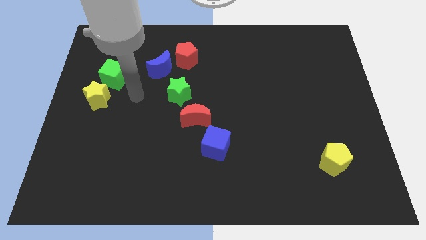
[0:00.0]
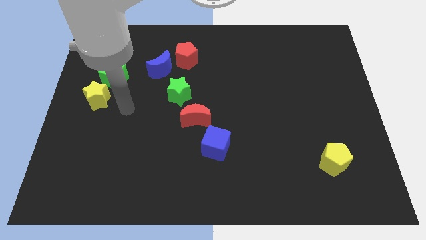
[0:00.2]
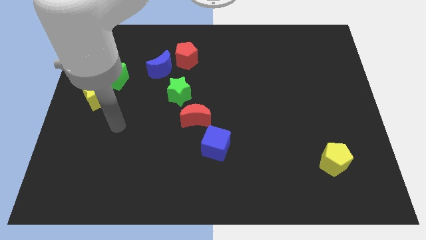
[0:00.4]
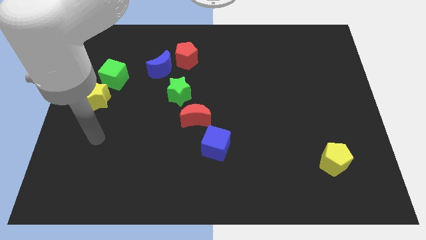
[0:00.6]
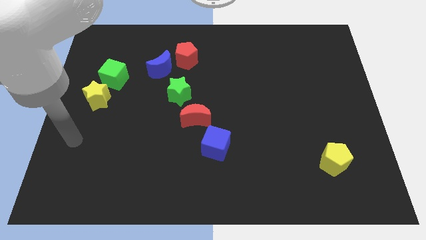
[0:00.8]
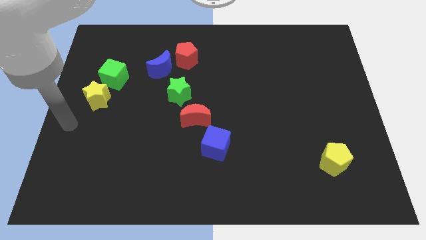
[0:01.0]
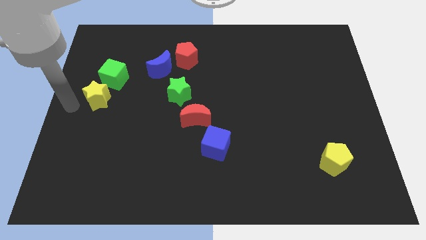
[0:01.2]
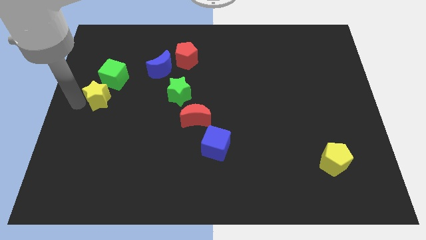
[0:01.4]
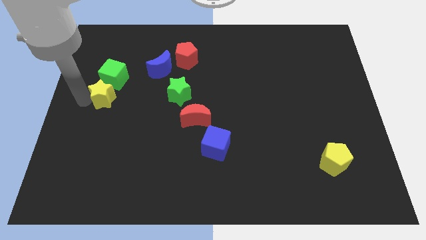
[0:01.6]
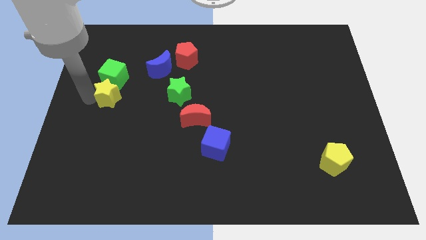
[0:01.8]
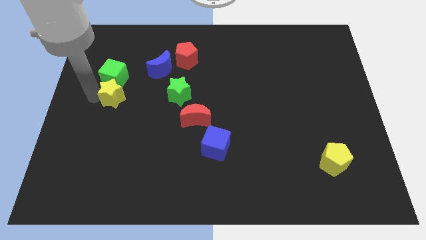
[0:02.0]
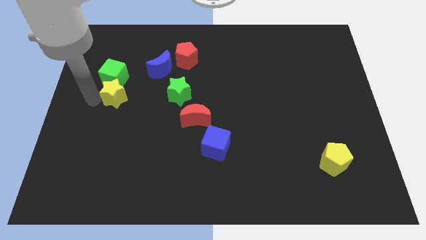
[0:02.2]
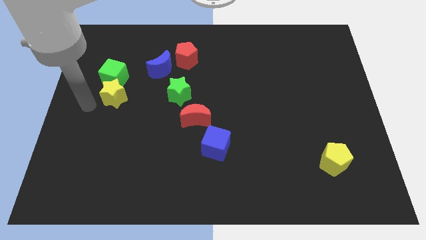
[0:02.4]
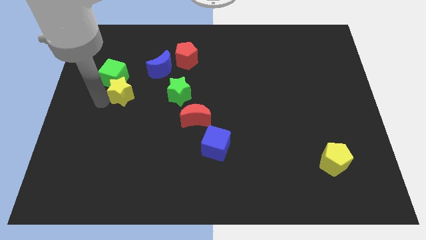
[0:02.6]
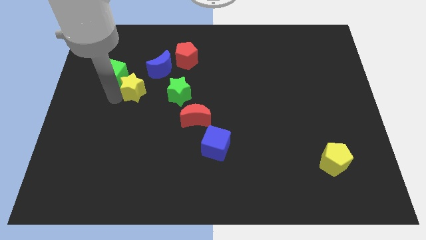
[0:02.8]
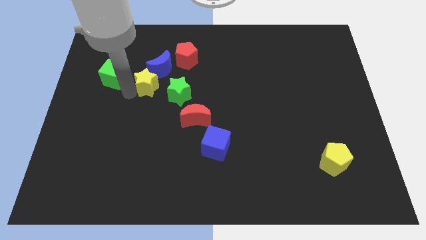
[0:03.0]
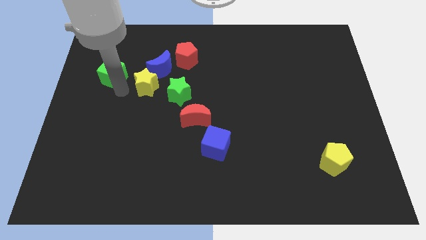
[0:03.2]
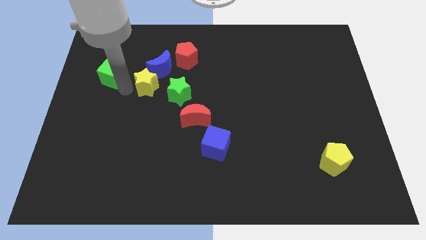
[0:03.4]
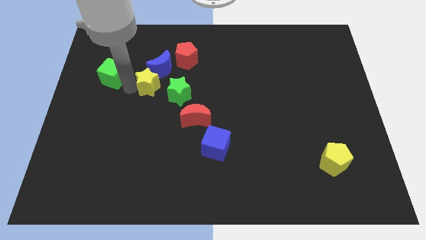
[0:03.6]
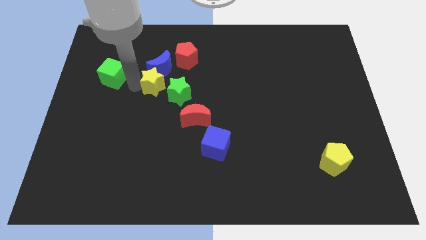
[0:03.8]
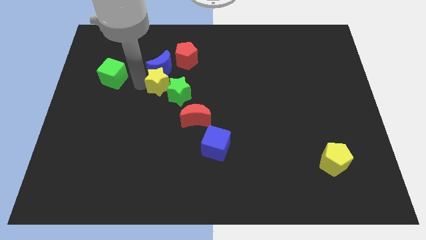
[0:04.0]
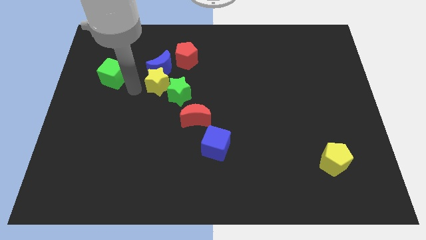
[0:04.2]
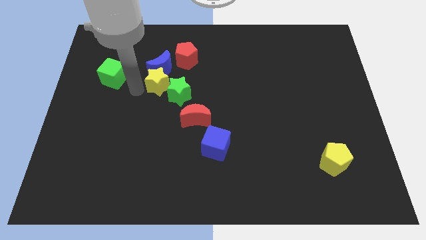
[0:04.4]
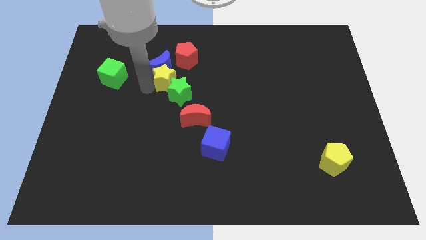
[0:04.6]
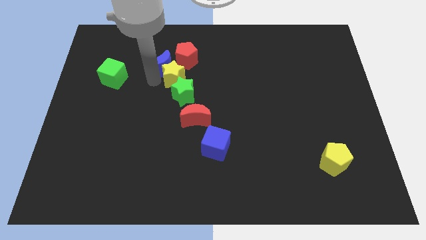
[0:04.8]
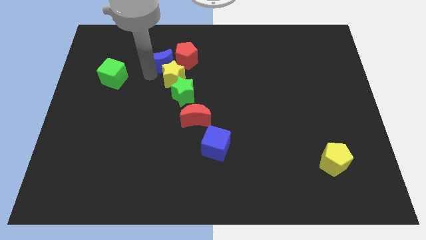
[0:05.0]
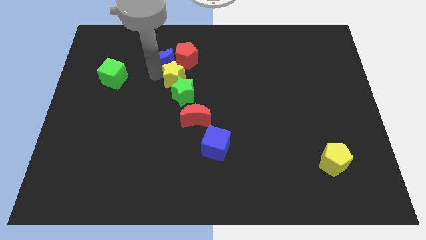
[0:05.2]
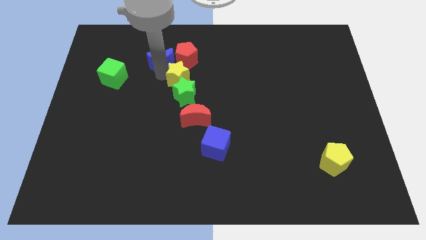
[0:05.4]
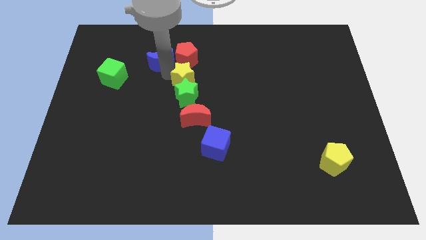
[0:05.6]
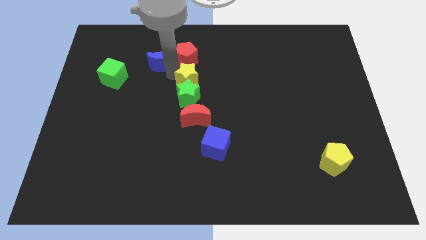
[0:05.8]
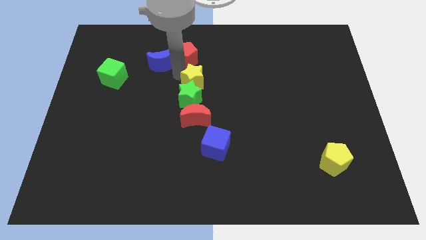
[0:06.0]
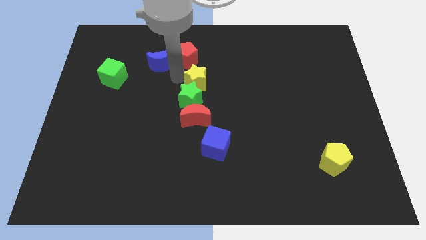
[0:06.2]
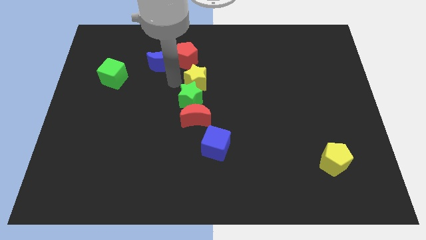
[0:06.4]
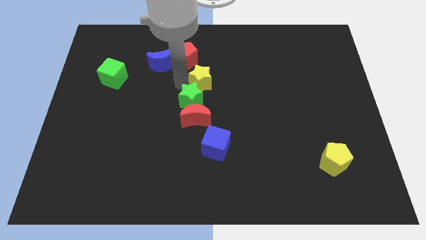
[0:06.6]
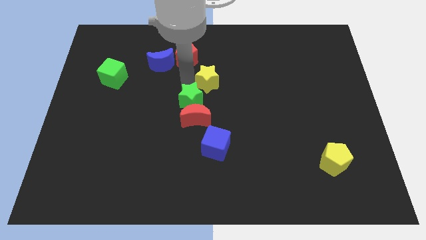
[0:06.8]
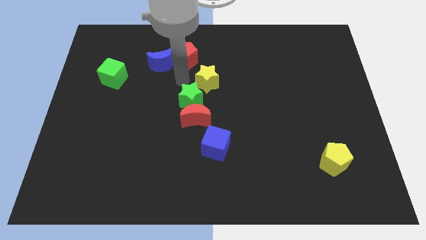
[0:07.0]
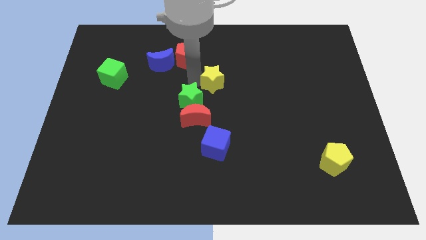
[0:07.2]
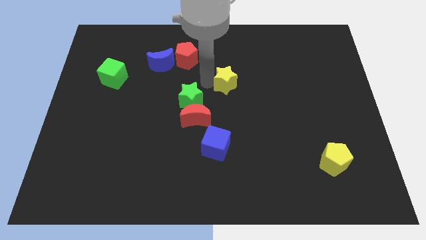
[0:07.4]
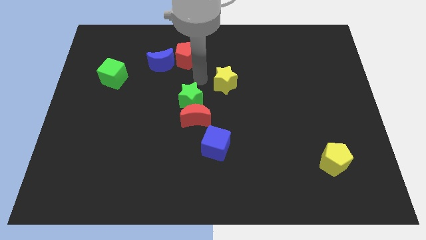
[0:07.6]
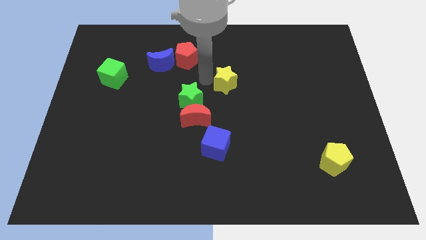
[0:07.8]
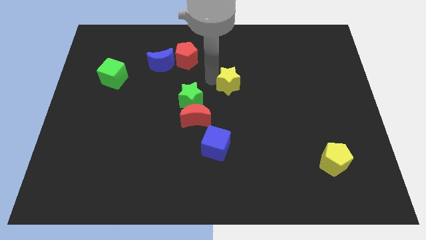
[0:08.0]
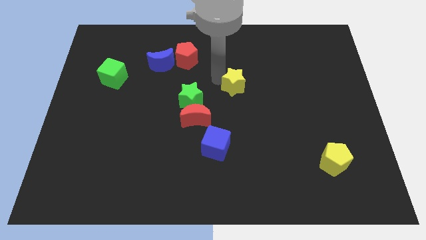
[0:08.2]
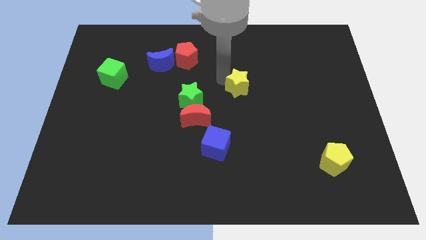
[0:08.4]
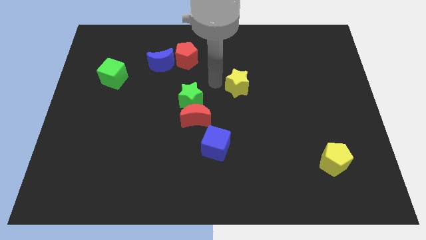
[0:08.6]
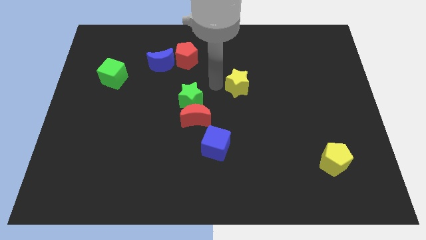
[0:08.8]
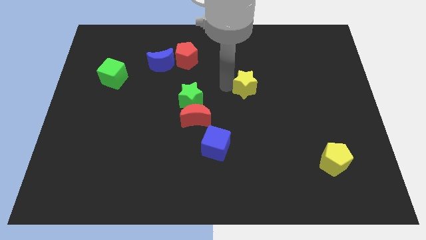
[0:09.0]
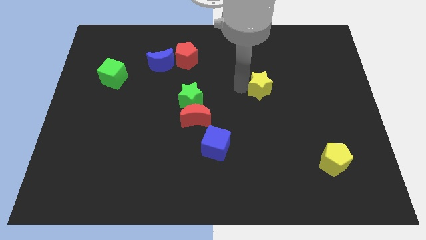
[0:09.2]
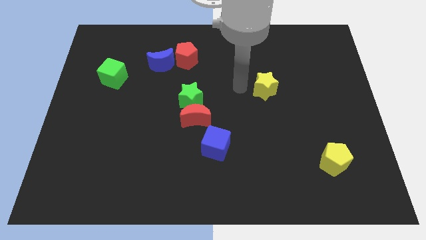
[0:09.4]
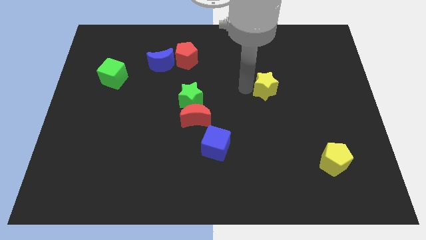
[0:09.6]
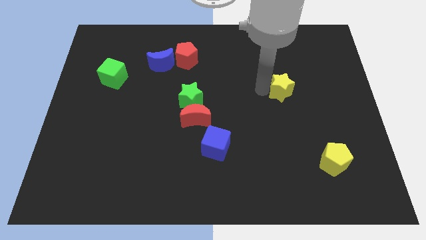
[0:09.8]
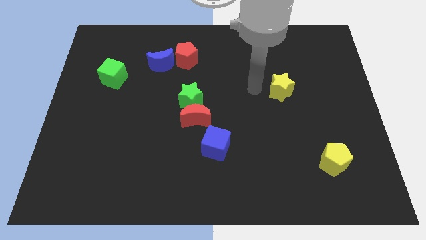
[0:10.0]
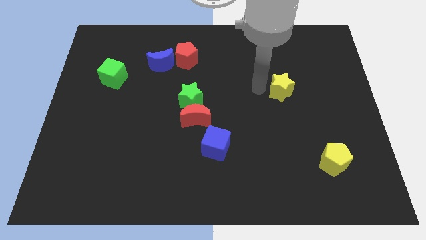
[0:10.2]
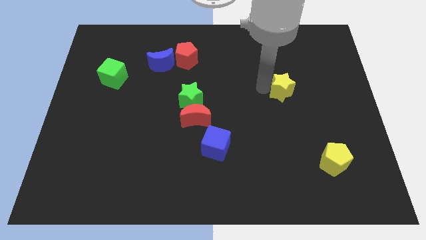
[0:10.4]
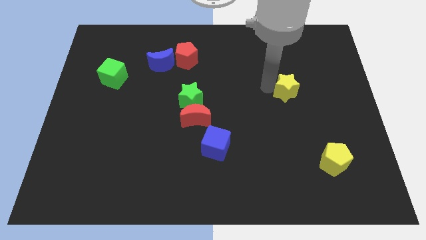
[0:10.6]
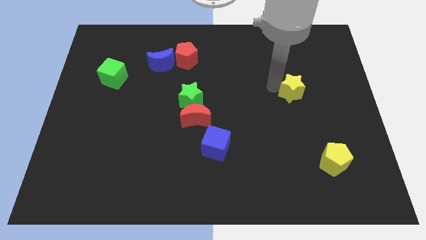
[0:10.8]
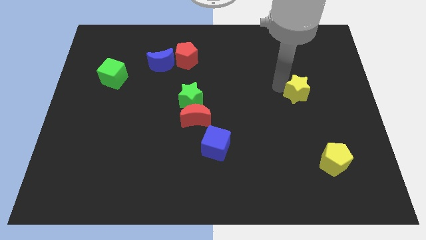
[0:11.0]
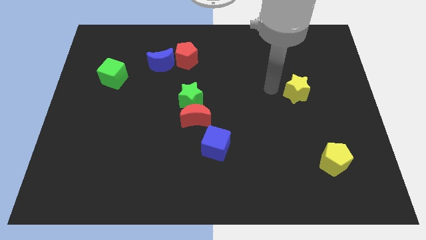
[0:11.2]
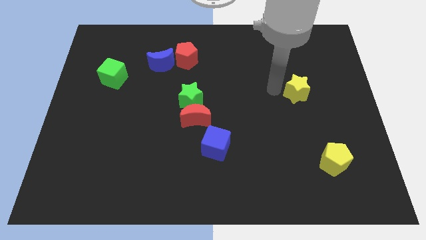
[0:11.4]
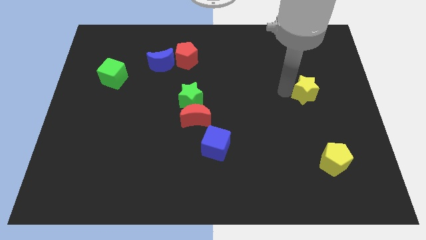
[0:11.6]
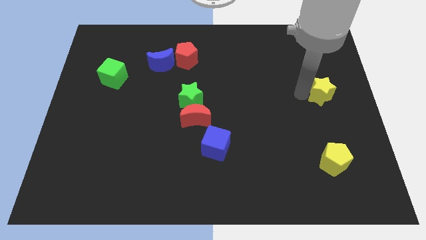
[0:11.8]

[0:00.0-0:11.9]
push the yellow star to the right side of the board
